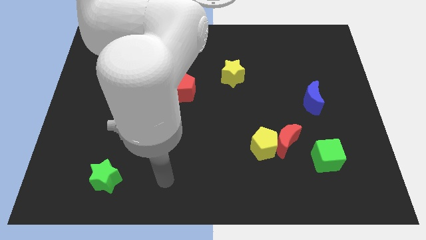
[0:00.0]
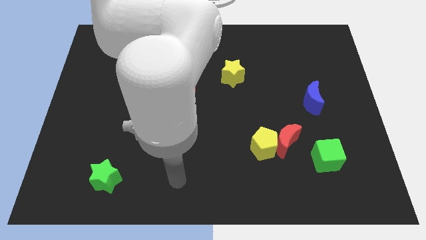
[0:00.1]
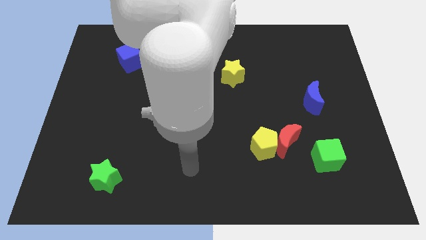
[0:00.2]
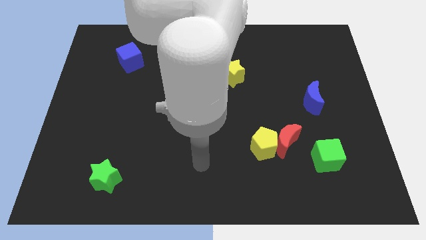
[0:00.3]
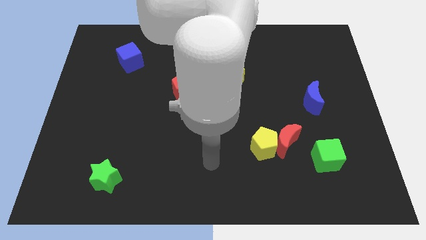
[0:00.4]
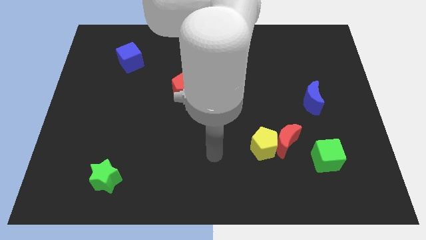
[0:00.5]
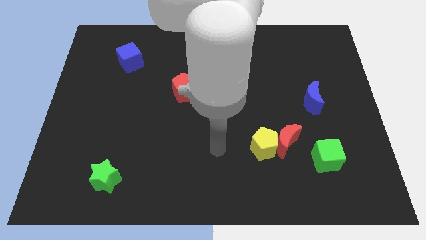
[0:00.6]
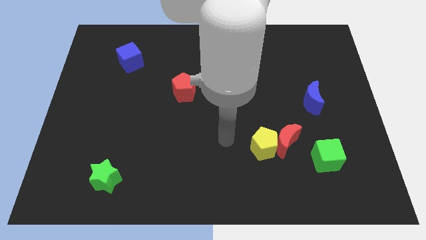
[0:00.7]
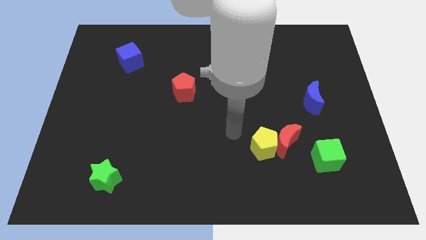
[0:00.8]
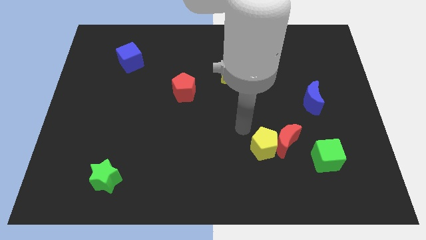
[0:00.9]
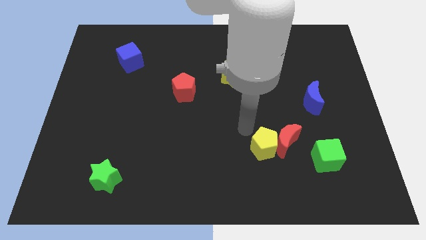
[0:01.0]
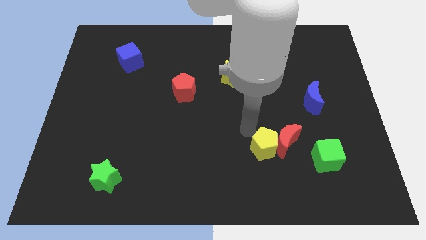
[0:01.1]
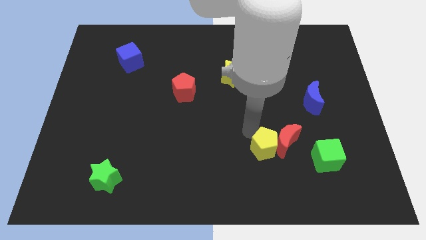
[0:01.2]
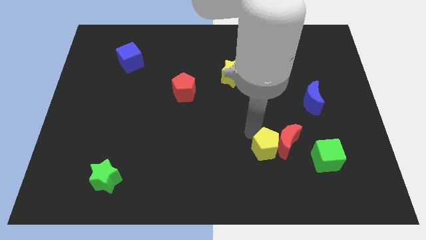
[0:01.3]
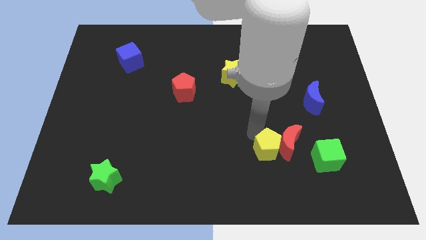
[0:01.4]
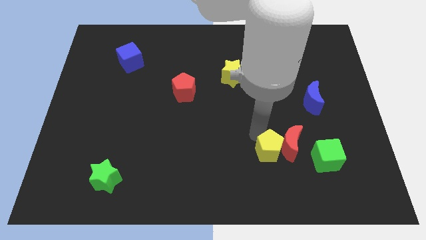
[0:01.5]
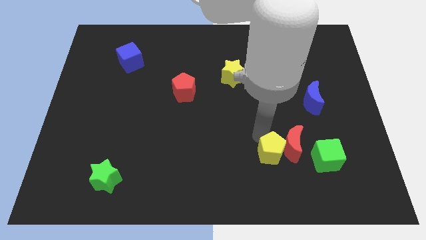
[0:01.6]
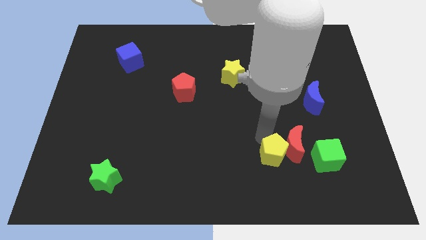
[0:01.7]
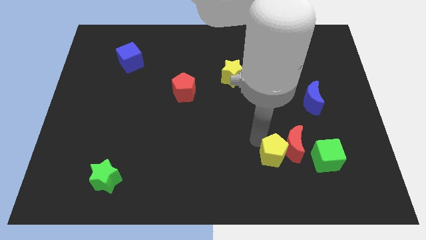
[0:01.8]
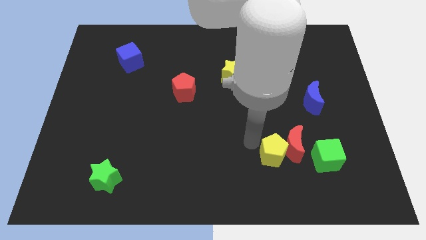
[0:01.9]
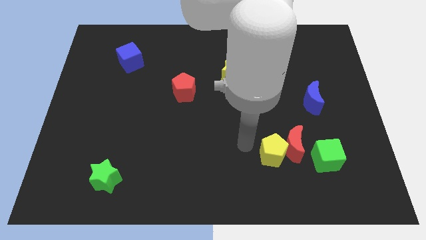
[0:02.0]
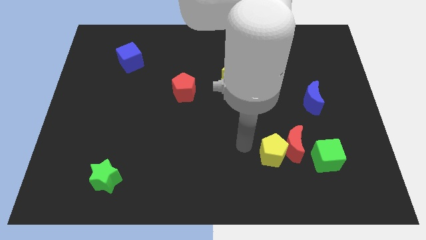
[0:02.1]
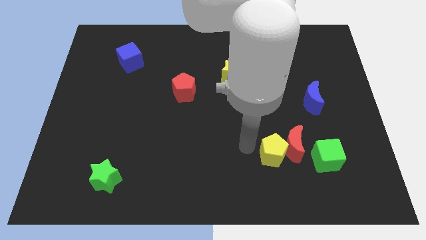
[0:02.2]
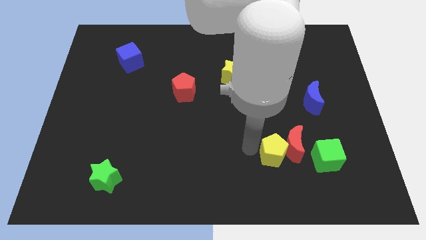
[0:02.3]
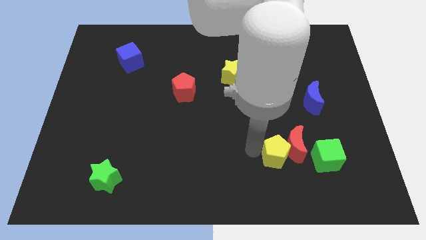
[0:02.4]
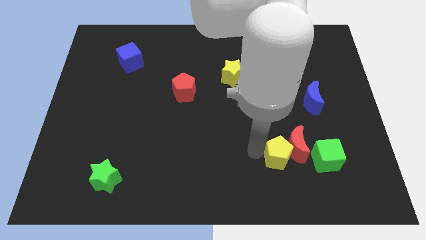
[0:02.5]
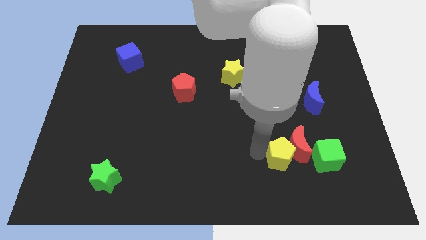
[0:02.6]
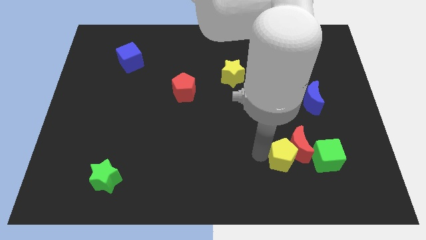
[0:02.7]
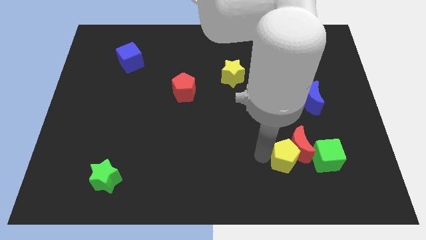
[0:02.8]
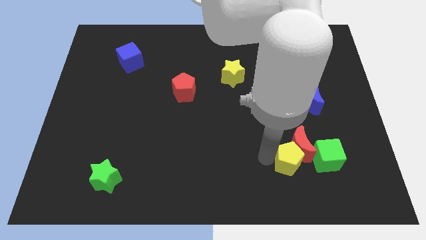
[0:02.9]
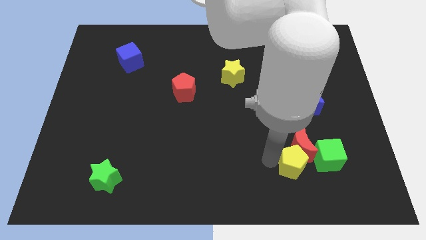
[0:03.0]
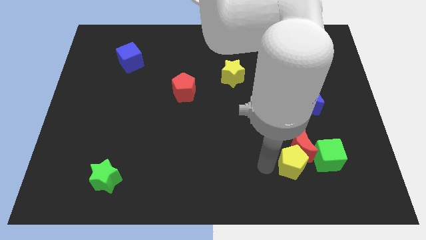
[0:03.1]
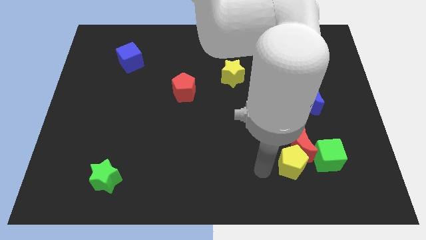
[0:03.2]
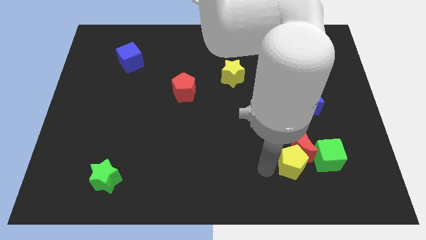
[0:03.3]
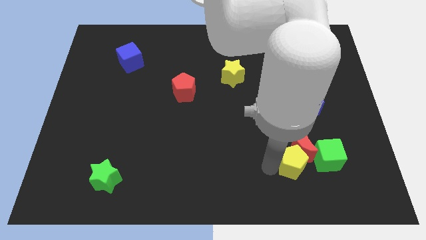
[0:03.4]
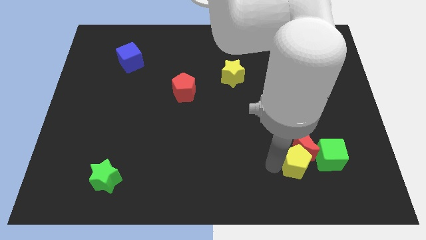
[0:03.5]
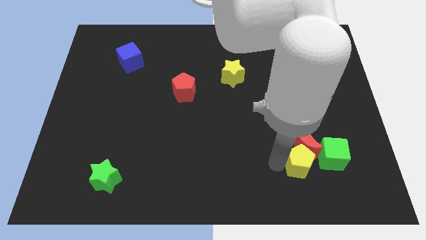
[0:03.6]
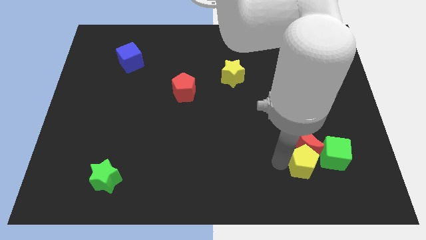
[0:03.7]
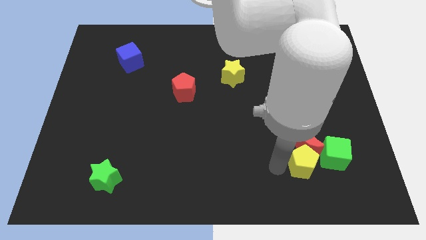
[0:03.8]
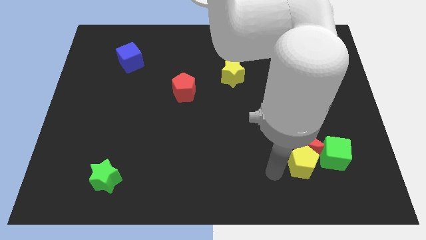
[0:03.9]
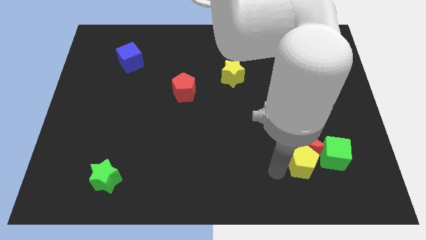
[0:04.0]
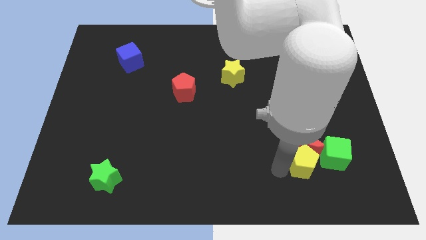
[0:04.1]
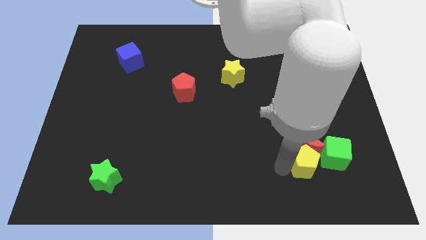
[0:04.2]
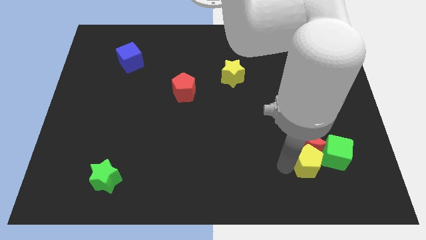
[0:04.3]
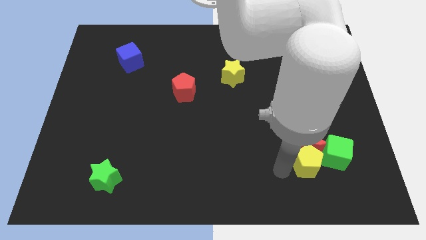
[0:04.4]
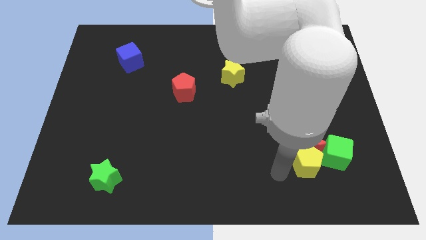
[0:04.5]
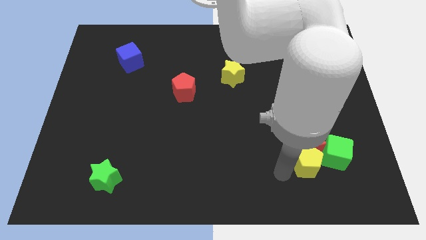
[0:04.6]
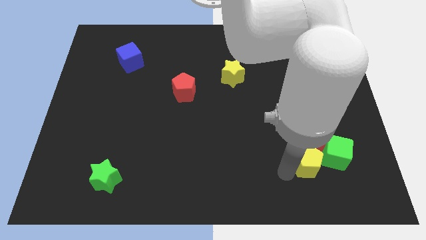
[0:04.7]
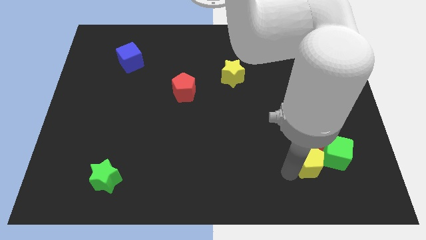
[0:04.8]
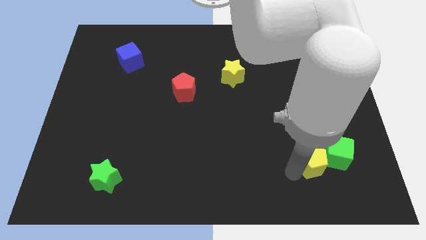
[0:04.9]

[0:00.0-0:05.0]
slide the yellow pentagon next to the green cube

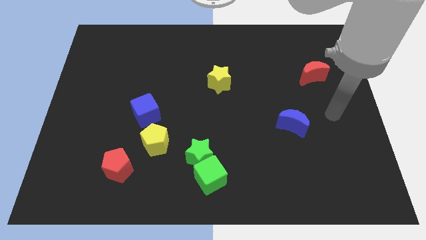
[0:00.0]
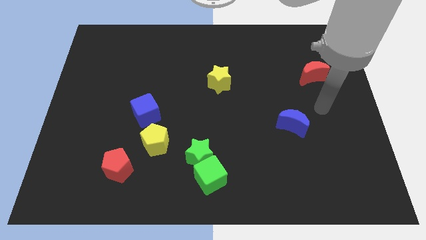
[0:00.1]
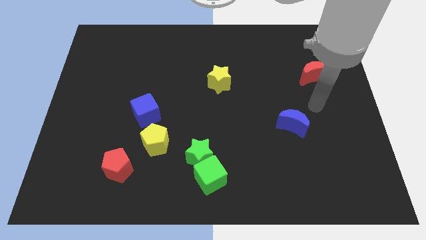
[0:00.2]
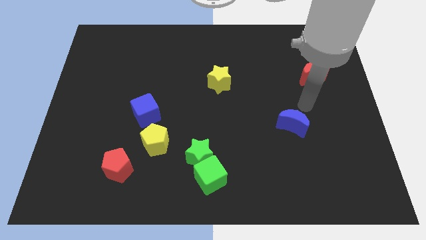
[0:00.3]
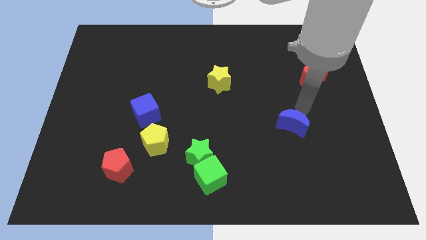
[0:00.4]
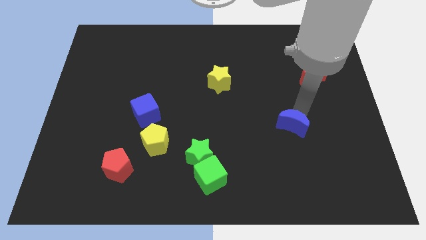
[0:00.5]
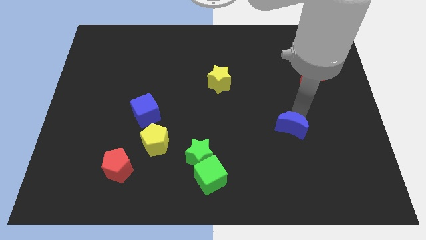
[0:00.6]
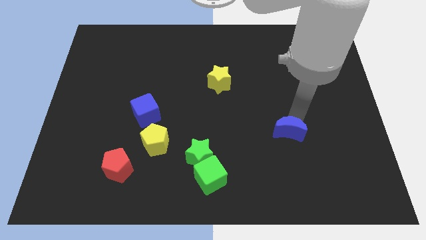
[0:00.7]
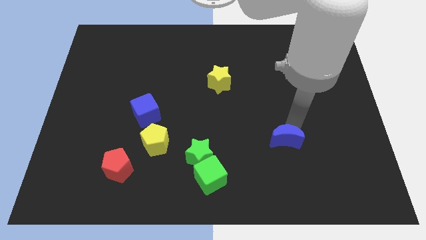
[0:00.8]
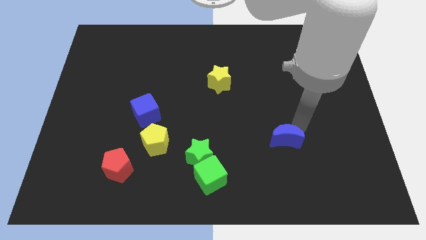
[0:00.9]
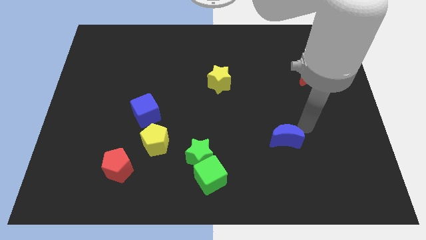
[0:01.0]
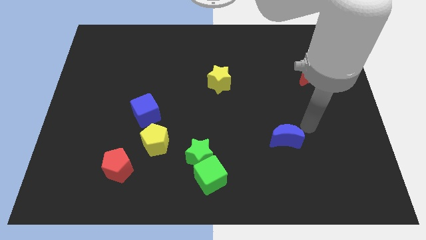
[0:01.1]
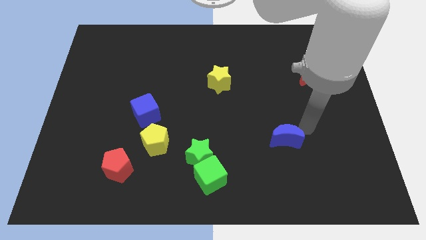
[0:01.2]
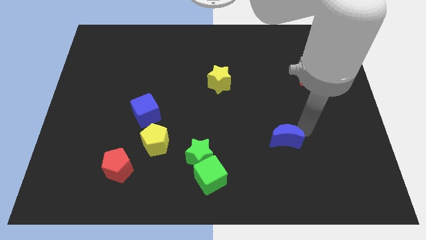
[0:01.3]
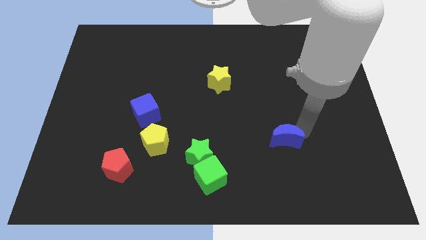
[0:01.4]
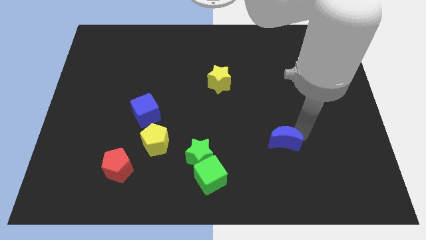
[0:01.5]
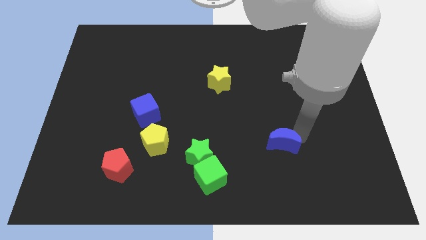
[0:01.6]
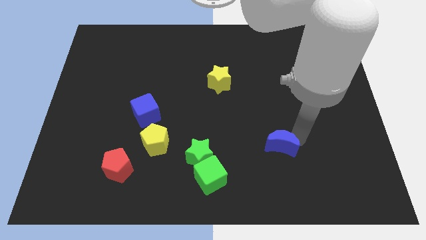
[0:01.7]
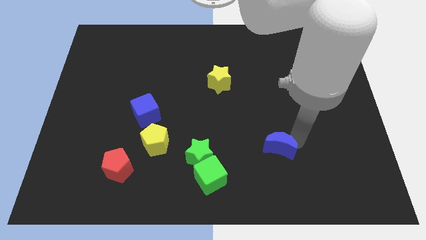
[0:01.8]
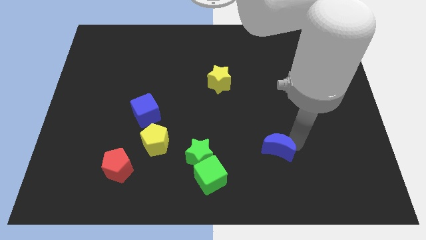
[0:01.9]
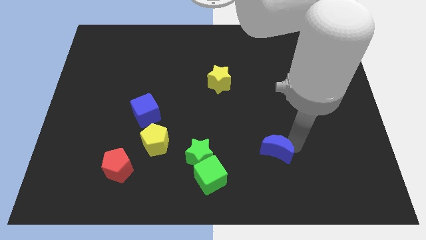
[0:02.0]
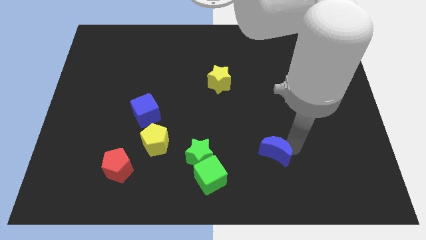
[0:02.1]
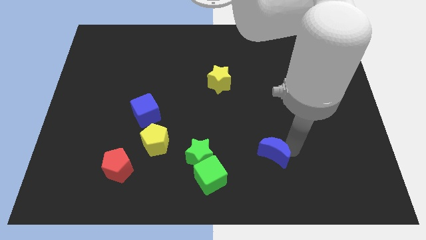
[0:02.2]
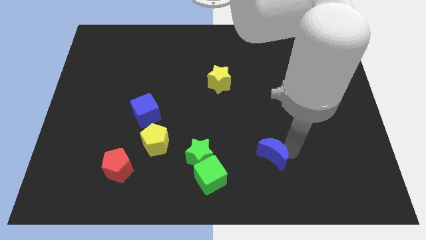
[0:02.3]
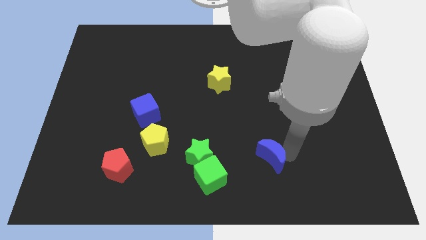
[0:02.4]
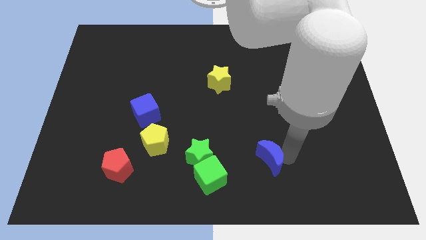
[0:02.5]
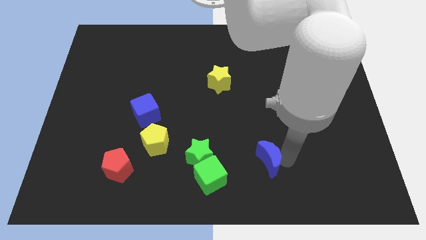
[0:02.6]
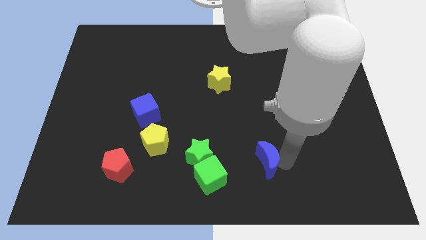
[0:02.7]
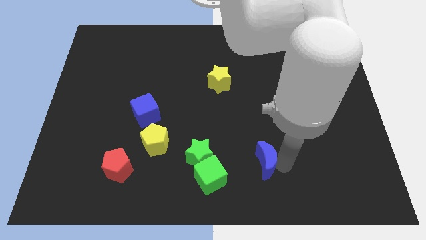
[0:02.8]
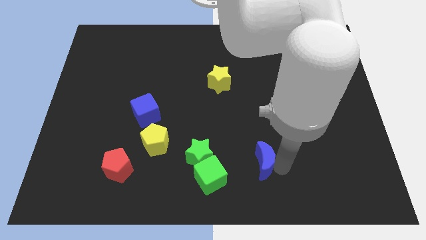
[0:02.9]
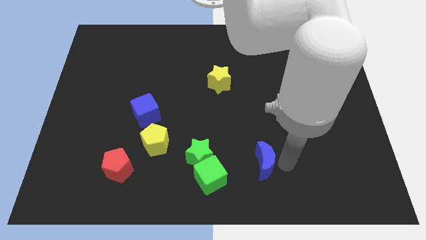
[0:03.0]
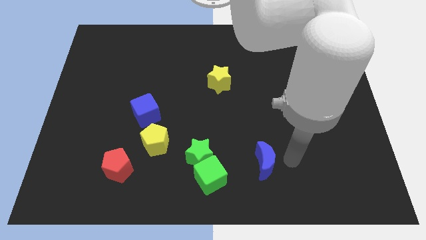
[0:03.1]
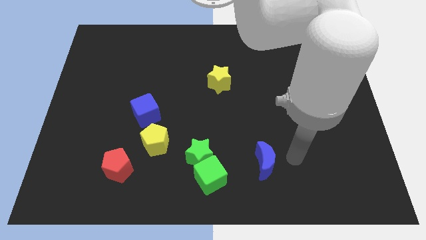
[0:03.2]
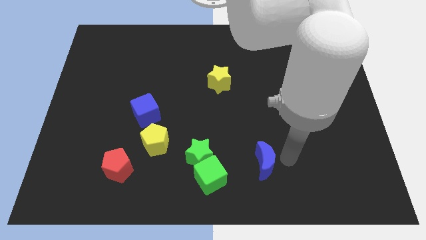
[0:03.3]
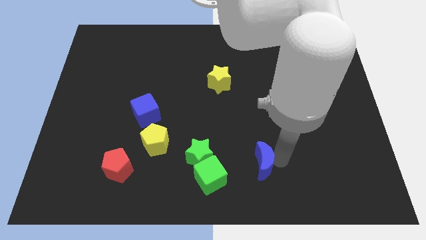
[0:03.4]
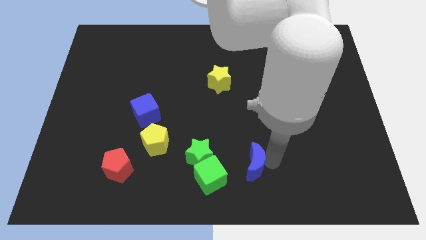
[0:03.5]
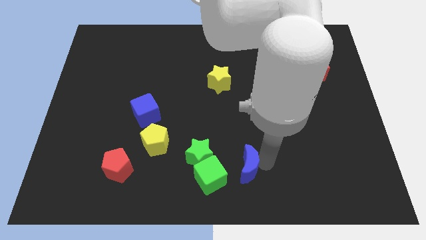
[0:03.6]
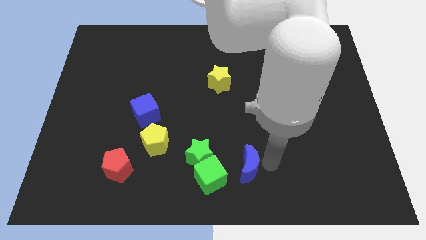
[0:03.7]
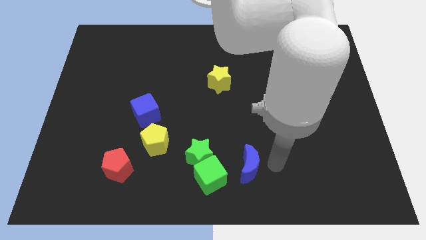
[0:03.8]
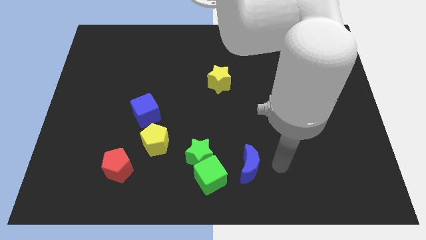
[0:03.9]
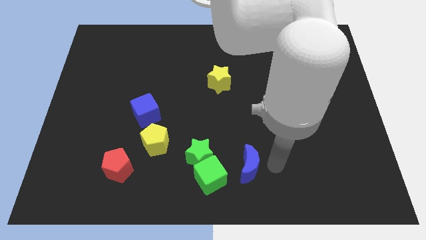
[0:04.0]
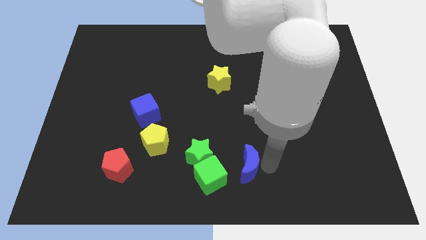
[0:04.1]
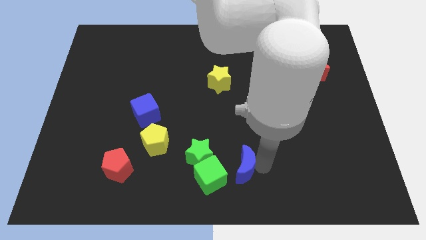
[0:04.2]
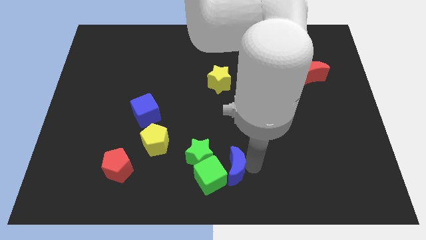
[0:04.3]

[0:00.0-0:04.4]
move the blue moon next to the green cube
